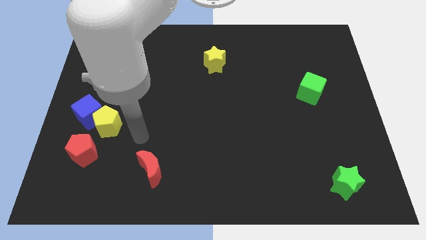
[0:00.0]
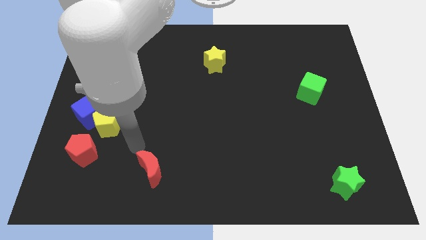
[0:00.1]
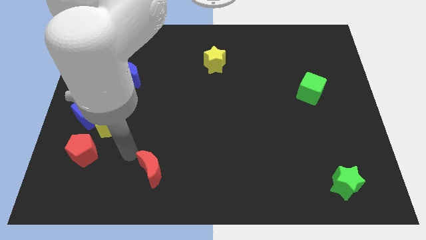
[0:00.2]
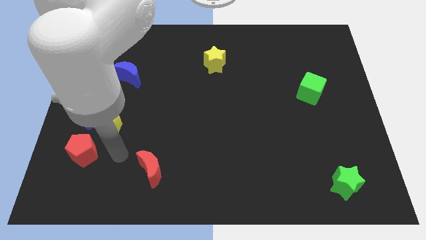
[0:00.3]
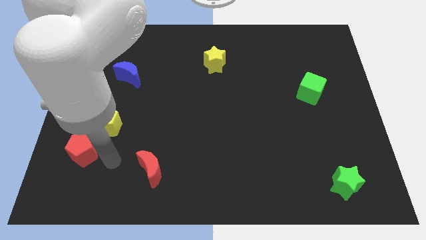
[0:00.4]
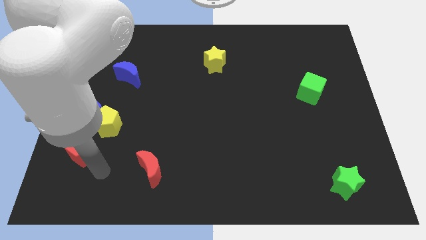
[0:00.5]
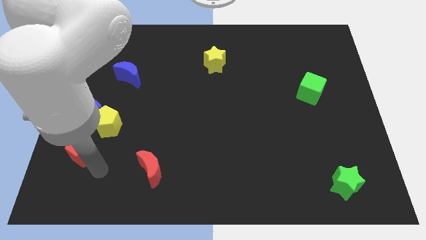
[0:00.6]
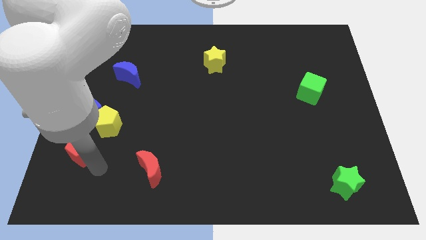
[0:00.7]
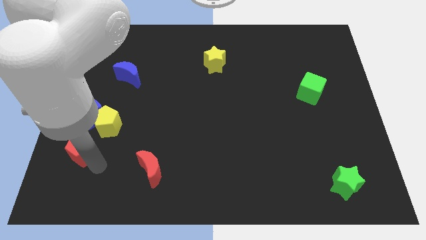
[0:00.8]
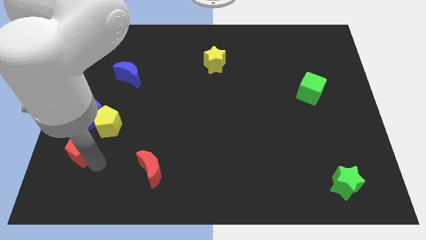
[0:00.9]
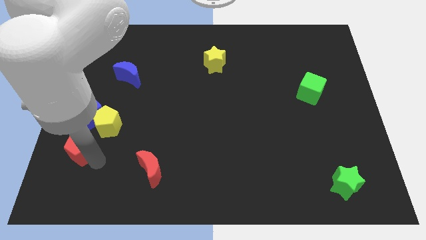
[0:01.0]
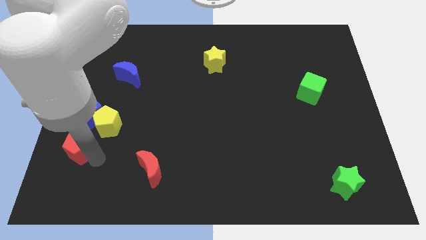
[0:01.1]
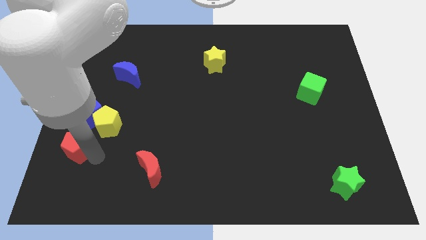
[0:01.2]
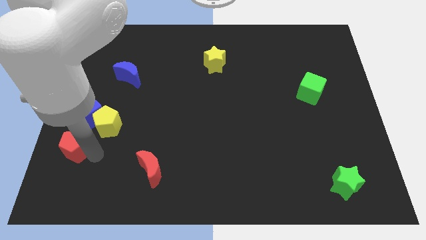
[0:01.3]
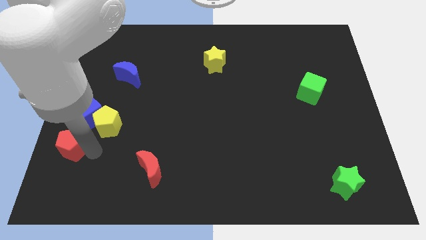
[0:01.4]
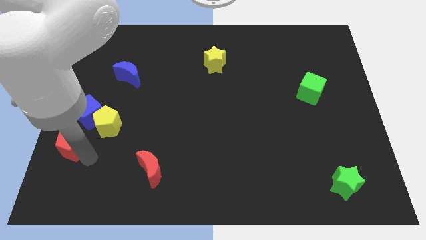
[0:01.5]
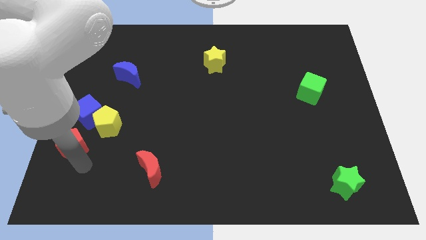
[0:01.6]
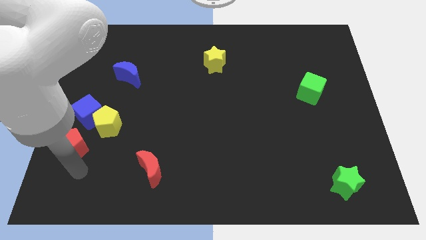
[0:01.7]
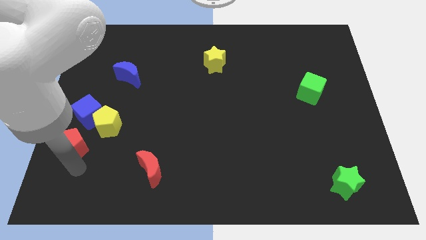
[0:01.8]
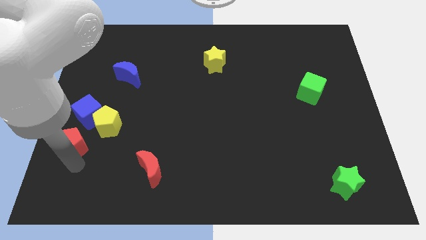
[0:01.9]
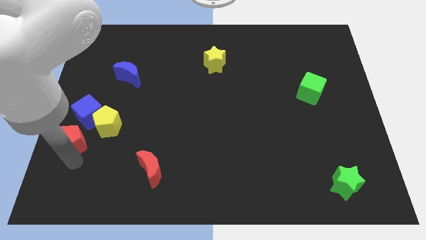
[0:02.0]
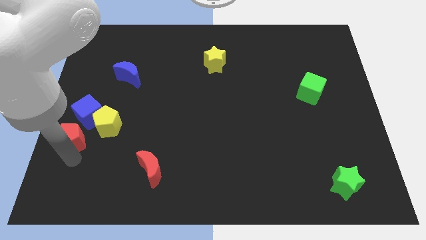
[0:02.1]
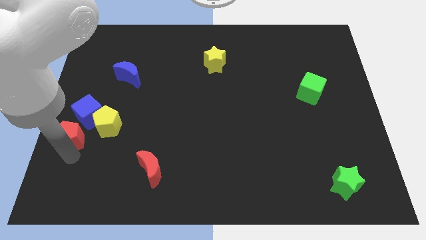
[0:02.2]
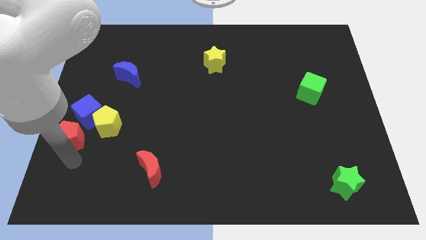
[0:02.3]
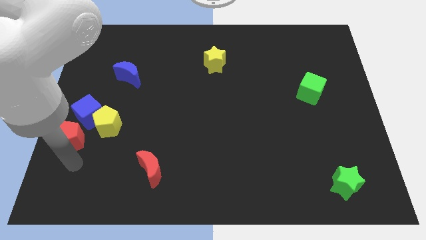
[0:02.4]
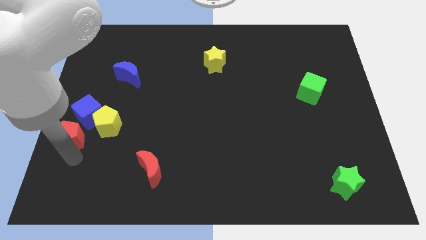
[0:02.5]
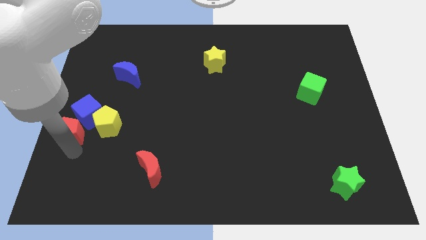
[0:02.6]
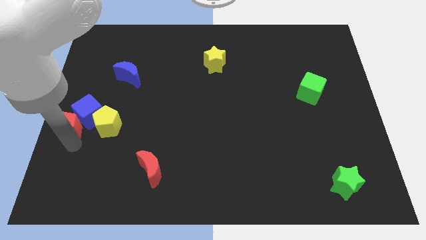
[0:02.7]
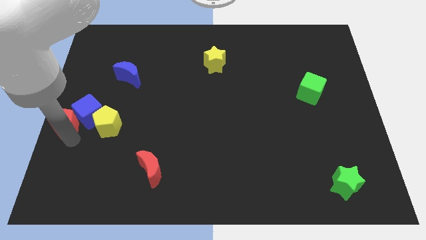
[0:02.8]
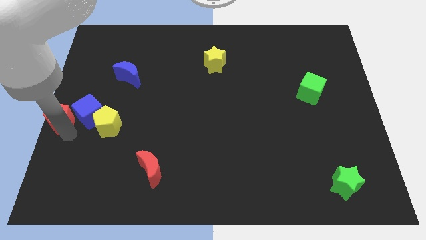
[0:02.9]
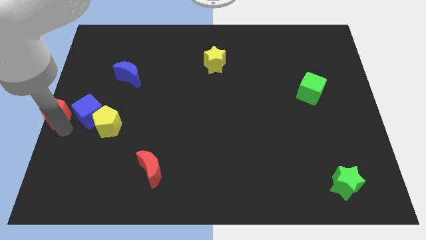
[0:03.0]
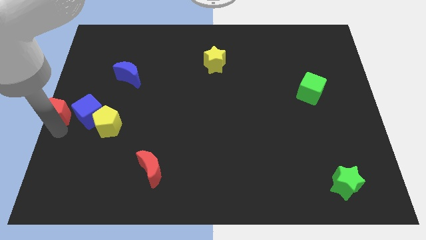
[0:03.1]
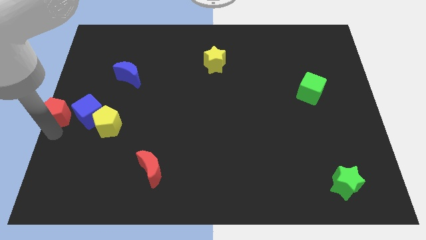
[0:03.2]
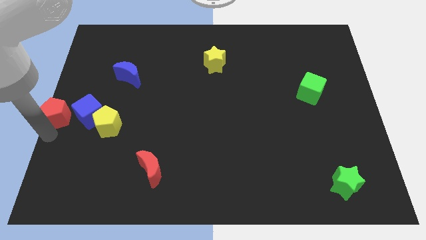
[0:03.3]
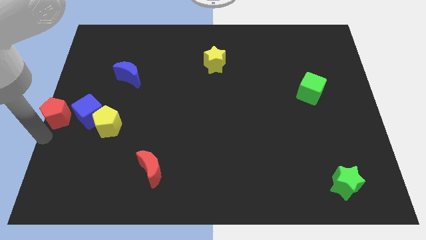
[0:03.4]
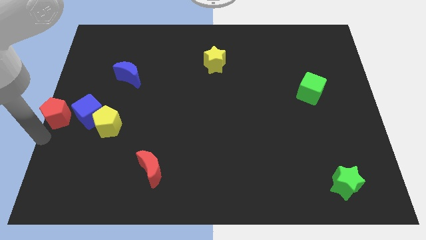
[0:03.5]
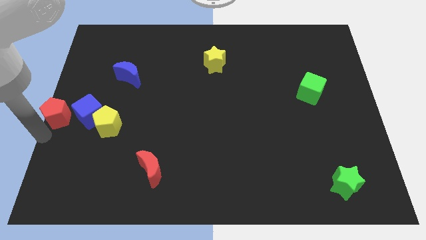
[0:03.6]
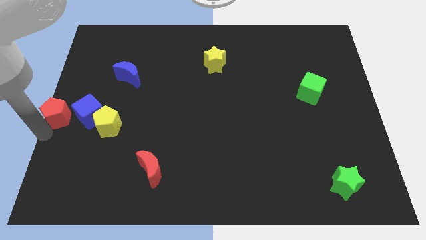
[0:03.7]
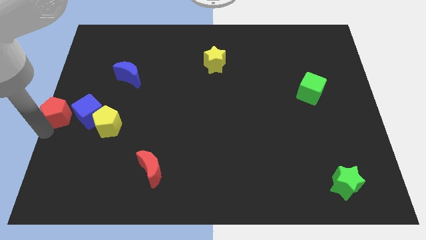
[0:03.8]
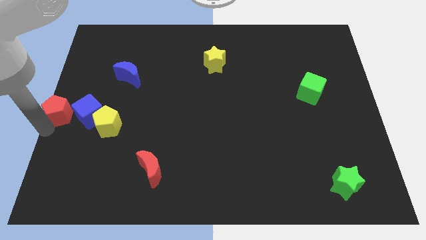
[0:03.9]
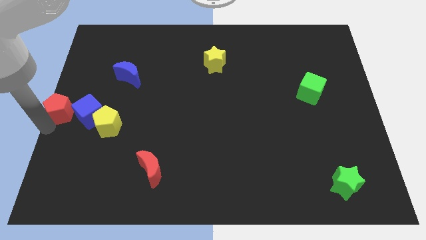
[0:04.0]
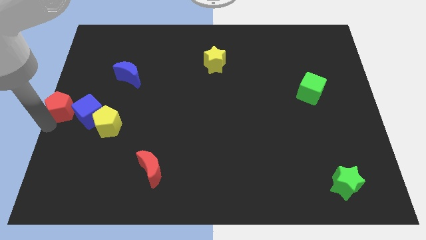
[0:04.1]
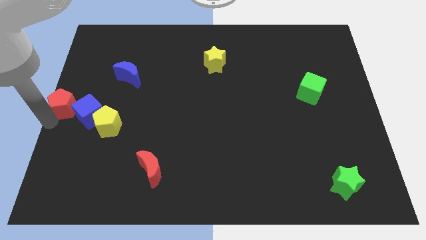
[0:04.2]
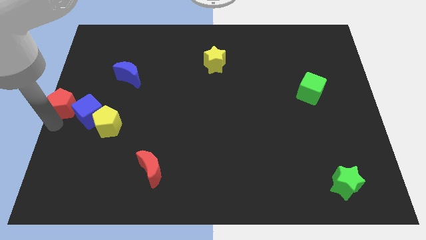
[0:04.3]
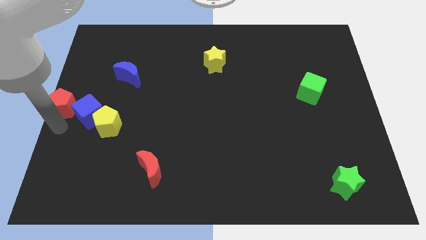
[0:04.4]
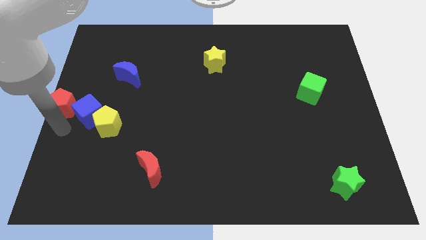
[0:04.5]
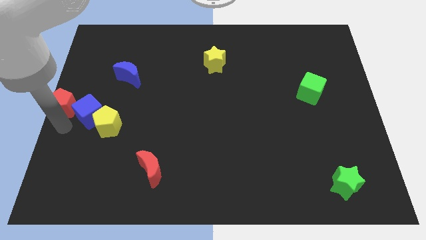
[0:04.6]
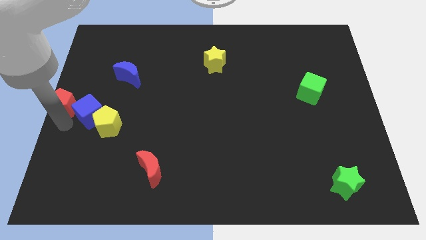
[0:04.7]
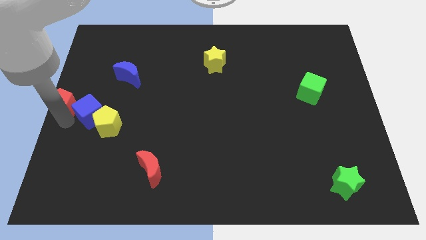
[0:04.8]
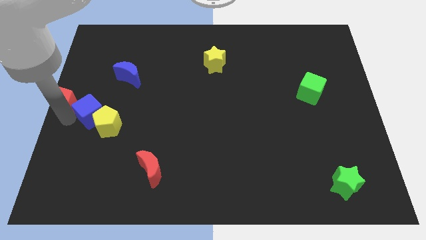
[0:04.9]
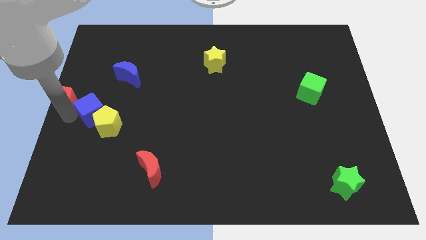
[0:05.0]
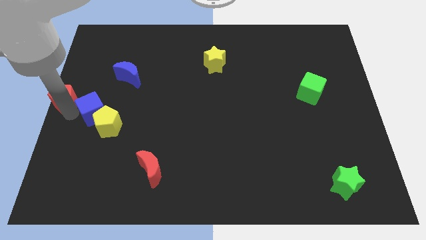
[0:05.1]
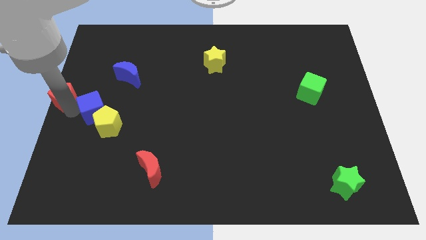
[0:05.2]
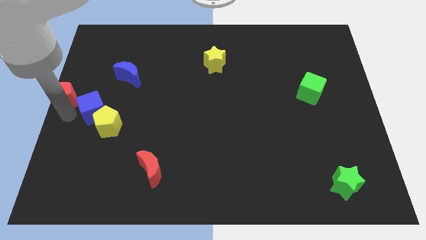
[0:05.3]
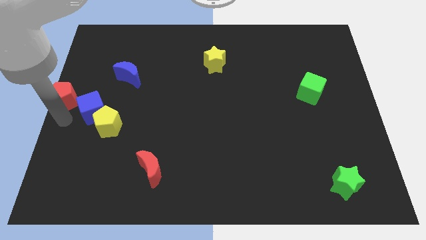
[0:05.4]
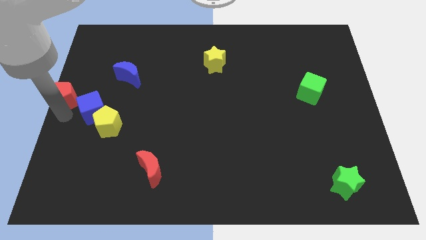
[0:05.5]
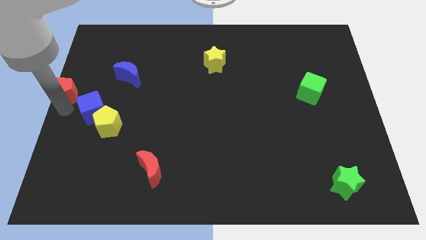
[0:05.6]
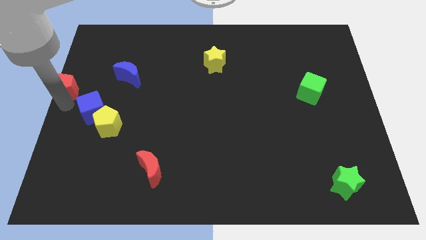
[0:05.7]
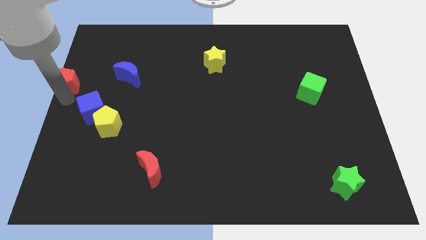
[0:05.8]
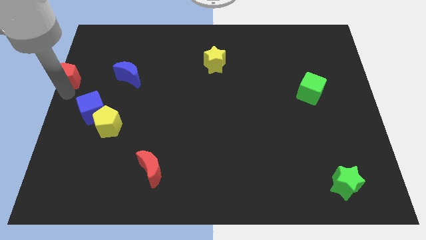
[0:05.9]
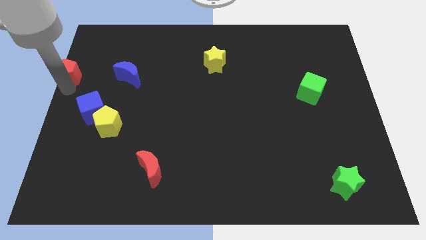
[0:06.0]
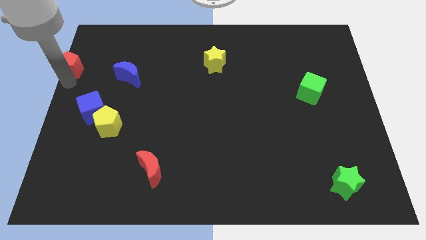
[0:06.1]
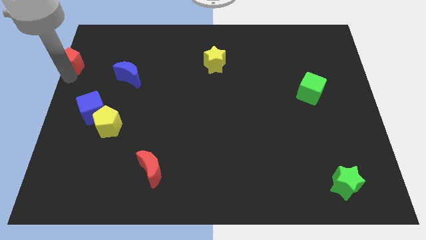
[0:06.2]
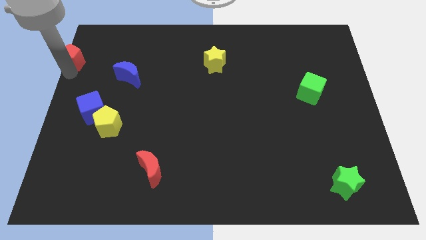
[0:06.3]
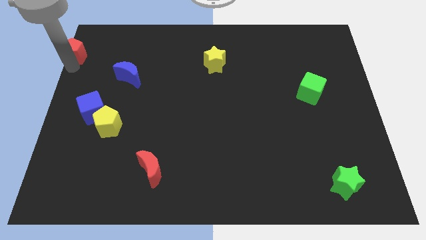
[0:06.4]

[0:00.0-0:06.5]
move the red pentagon to the top left

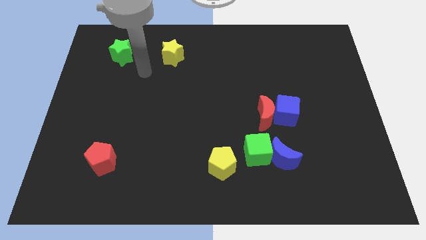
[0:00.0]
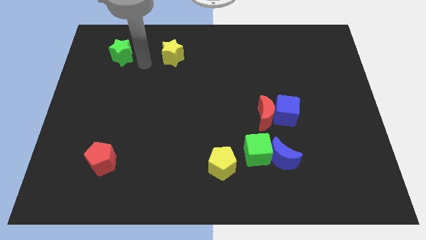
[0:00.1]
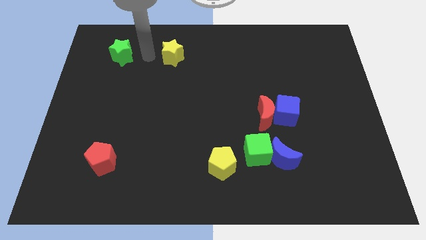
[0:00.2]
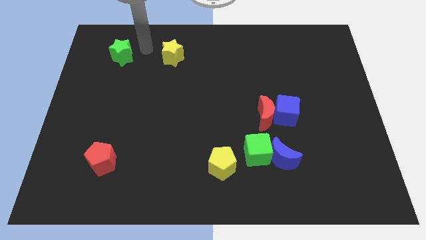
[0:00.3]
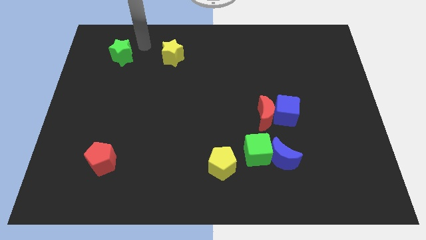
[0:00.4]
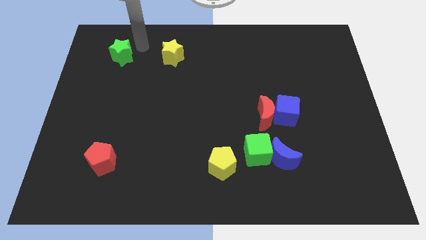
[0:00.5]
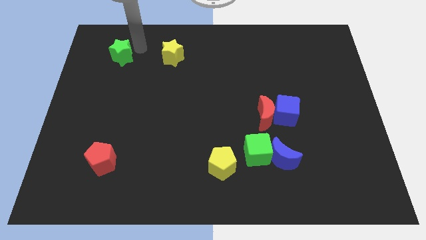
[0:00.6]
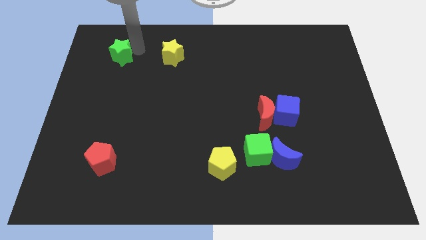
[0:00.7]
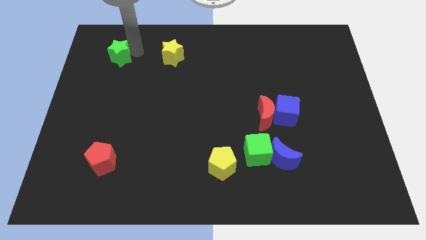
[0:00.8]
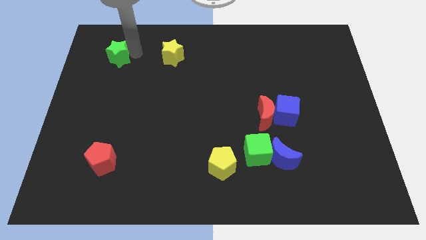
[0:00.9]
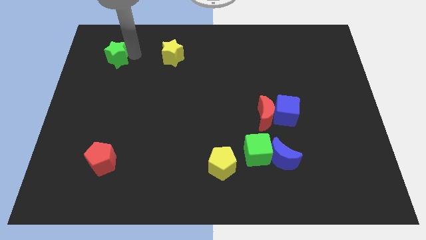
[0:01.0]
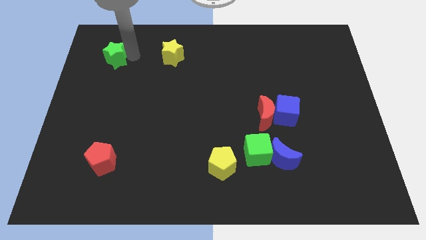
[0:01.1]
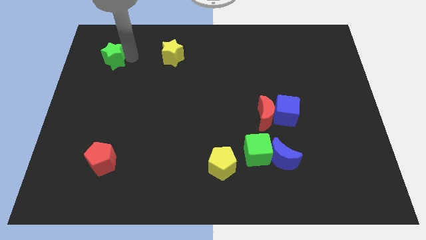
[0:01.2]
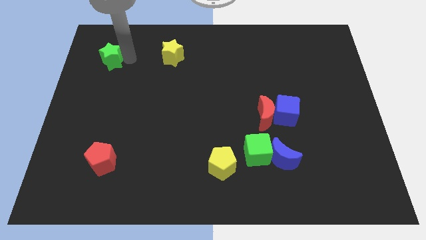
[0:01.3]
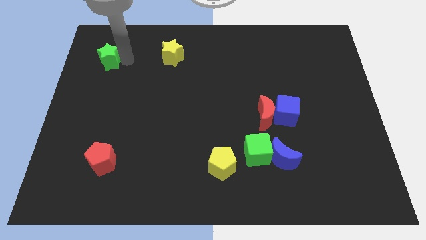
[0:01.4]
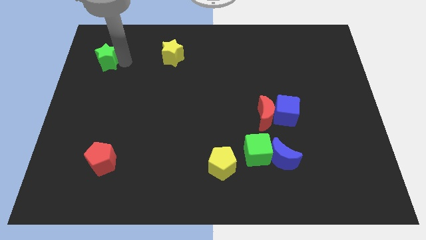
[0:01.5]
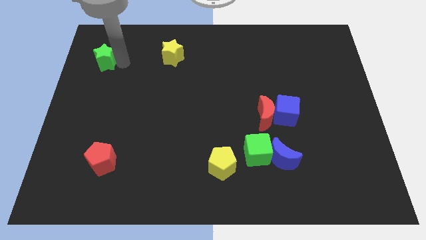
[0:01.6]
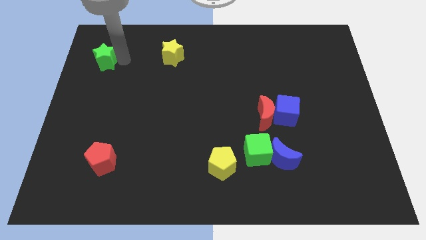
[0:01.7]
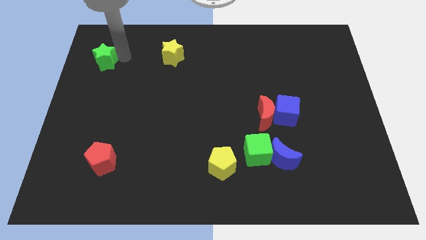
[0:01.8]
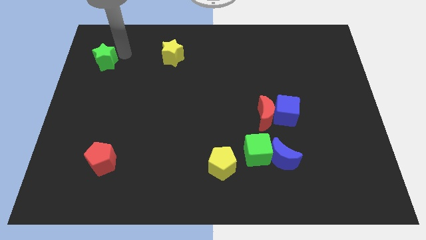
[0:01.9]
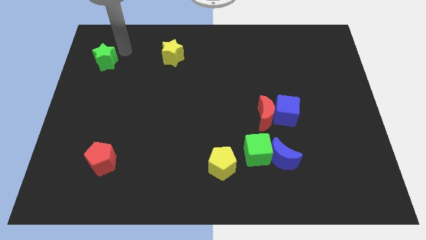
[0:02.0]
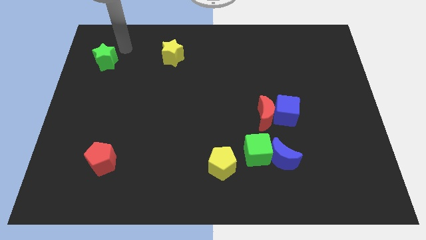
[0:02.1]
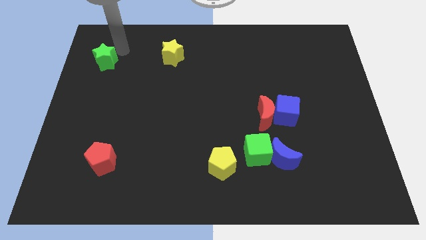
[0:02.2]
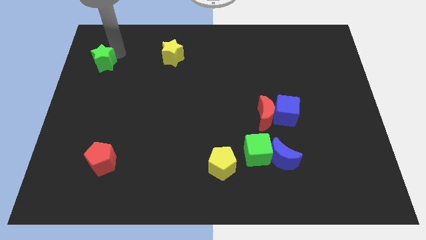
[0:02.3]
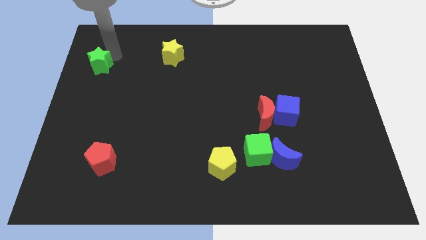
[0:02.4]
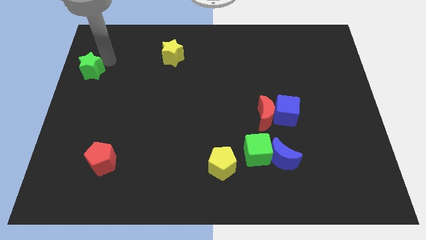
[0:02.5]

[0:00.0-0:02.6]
slide the green star to the center left
